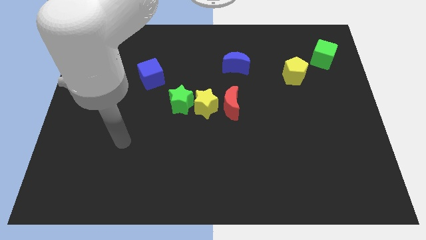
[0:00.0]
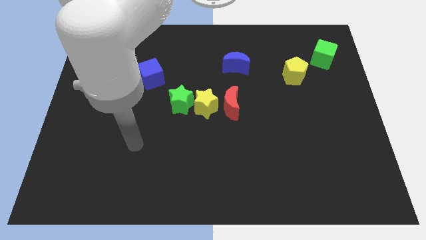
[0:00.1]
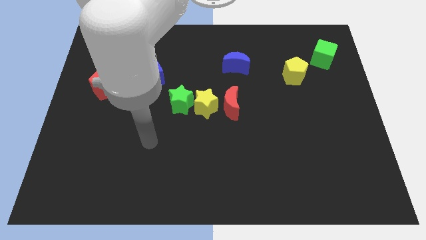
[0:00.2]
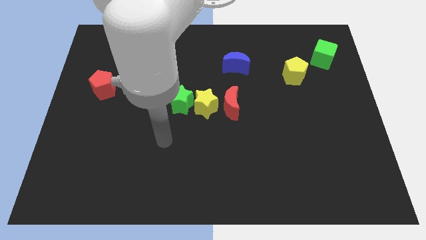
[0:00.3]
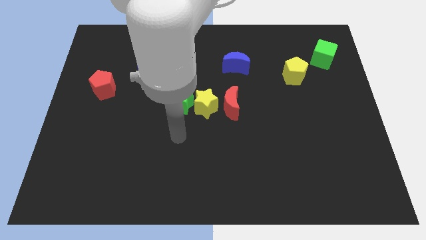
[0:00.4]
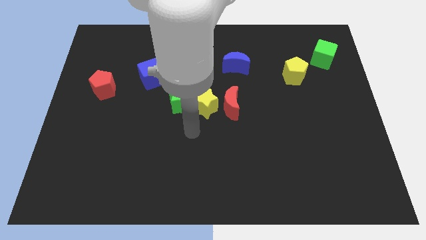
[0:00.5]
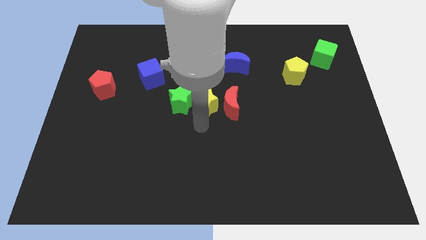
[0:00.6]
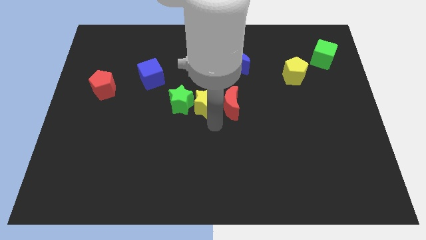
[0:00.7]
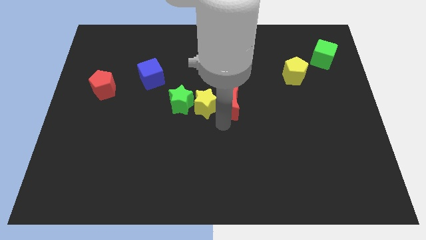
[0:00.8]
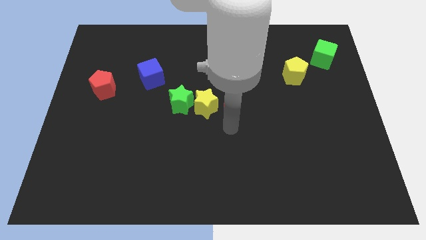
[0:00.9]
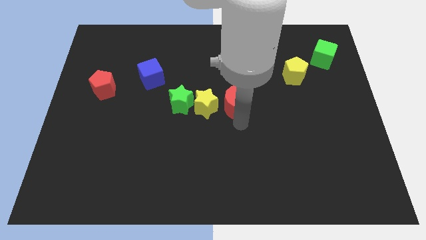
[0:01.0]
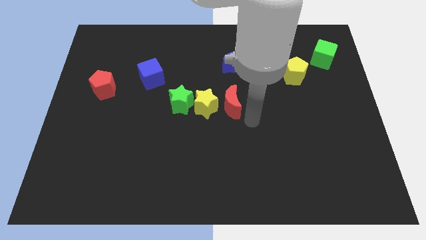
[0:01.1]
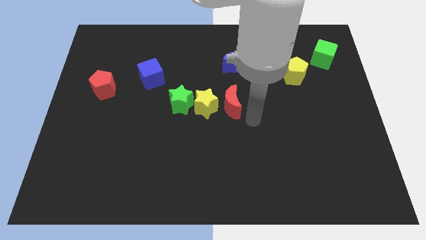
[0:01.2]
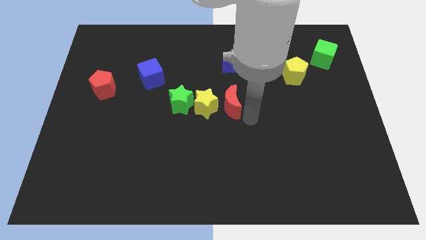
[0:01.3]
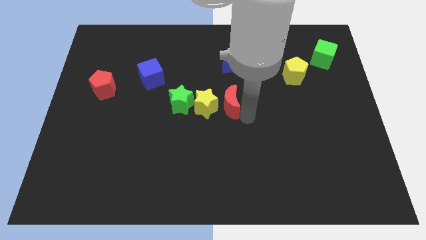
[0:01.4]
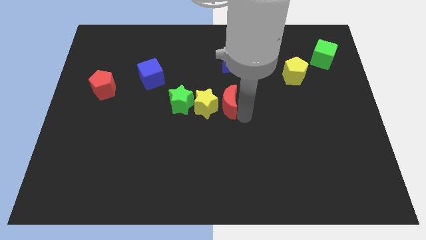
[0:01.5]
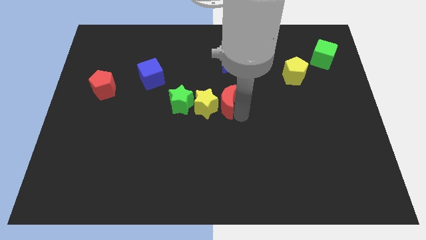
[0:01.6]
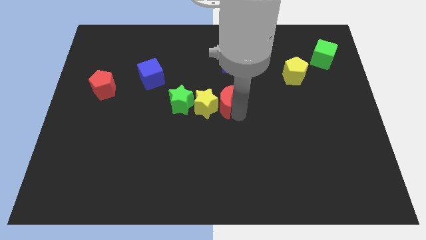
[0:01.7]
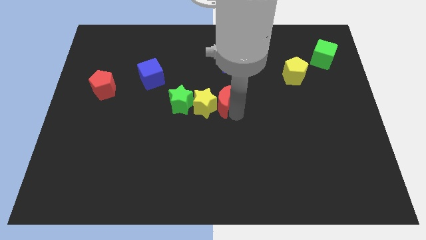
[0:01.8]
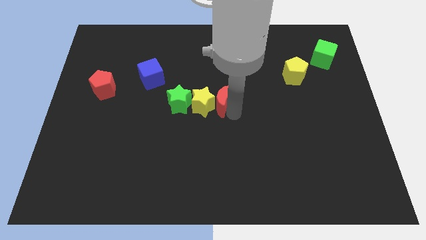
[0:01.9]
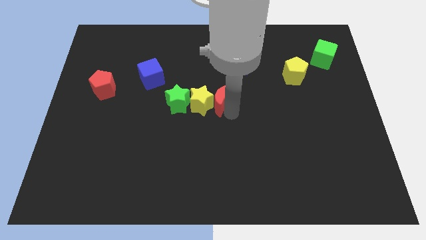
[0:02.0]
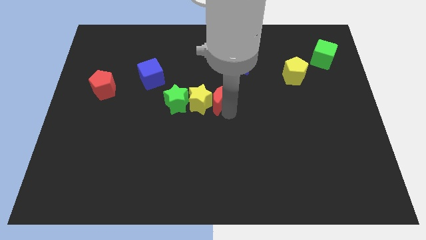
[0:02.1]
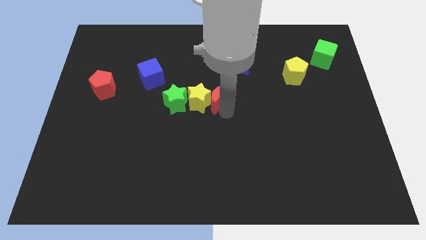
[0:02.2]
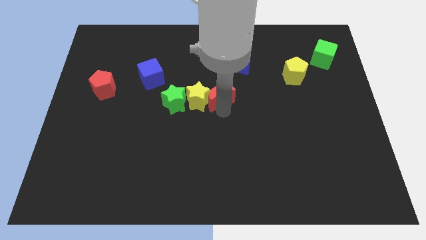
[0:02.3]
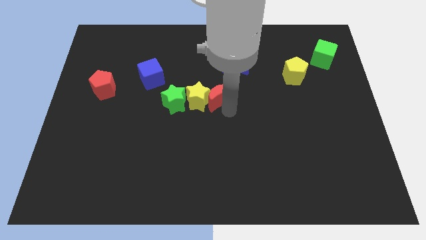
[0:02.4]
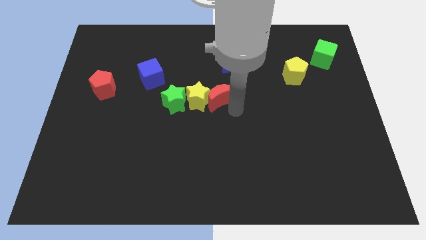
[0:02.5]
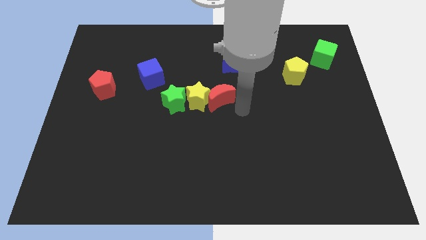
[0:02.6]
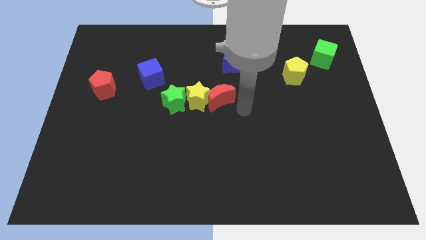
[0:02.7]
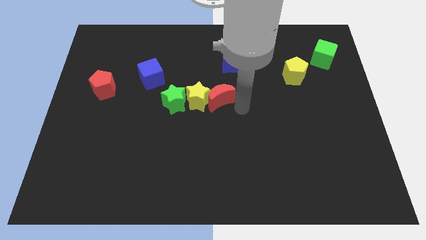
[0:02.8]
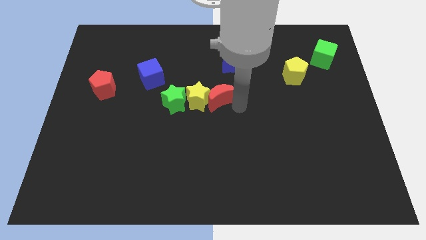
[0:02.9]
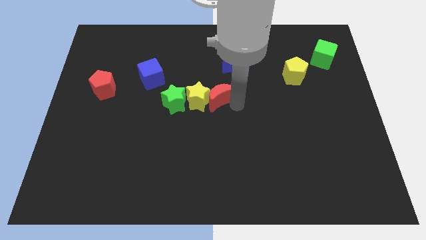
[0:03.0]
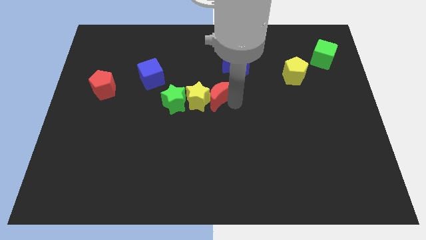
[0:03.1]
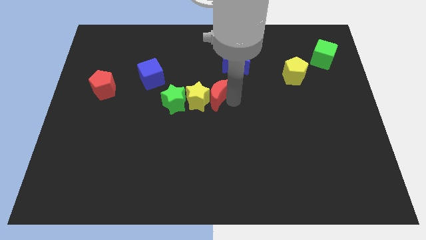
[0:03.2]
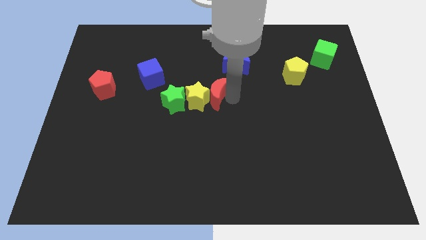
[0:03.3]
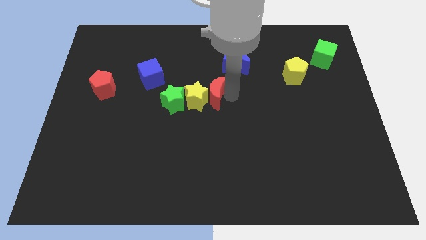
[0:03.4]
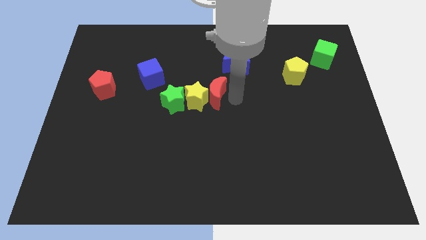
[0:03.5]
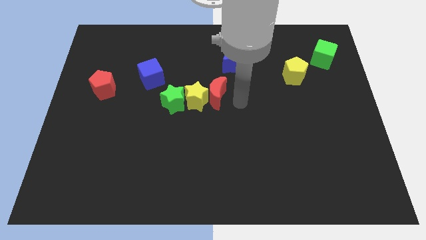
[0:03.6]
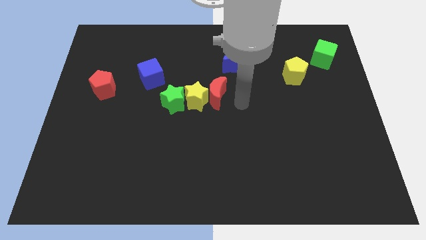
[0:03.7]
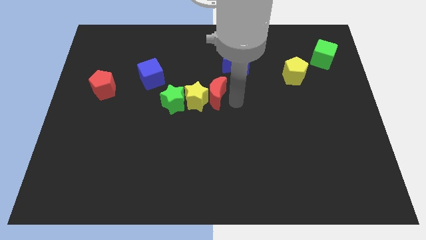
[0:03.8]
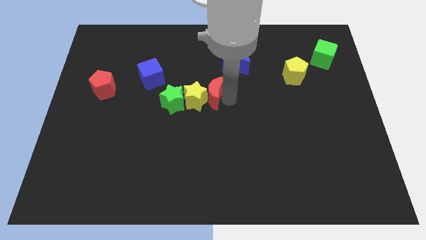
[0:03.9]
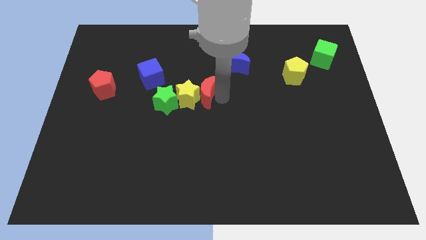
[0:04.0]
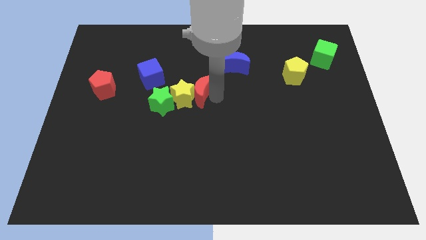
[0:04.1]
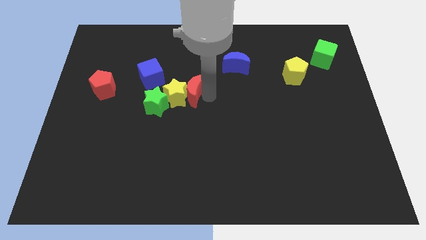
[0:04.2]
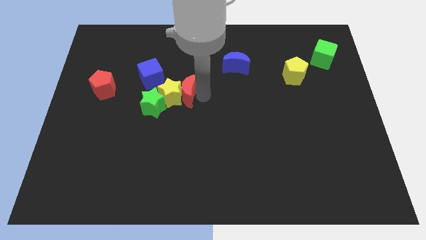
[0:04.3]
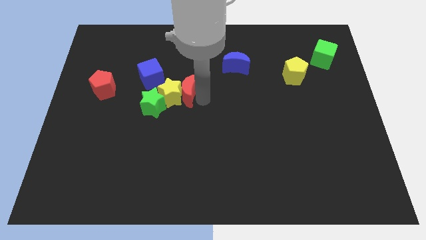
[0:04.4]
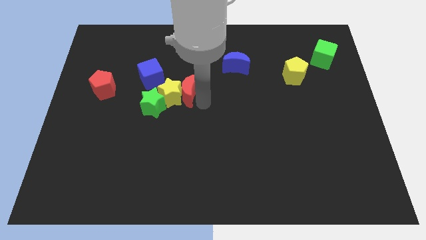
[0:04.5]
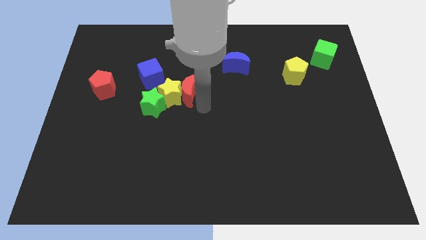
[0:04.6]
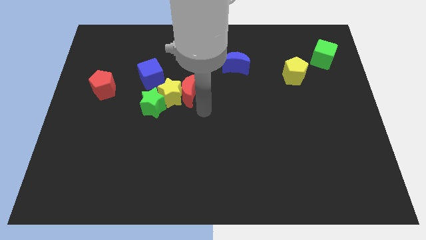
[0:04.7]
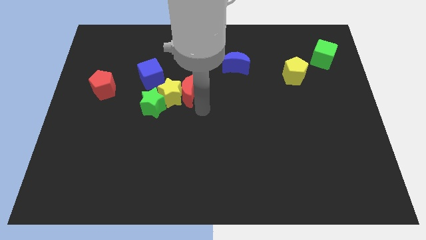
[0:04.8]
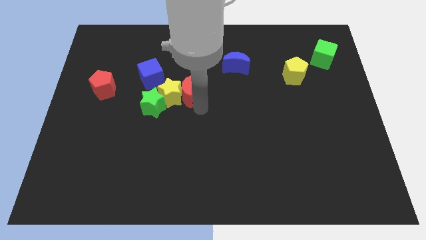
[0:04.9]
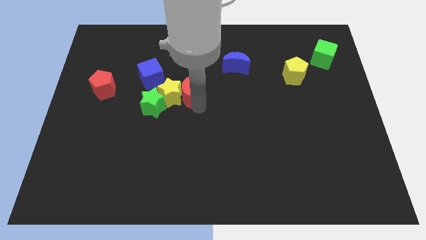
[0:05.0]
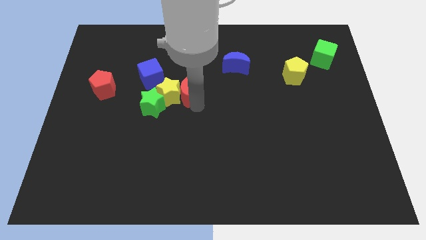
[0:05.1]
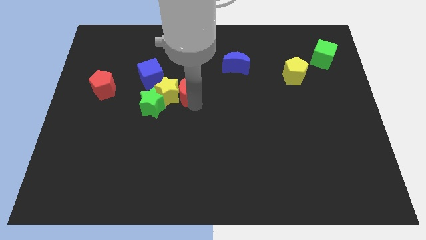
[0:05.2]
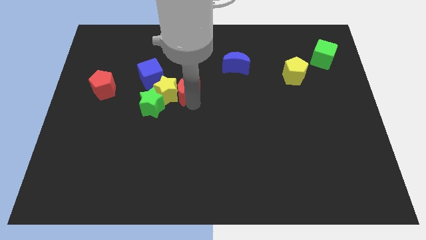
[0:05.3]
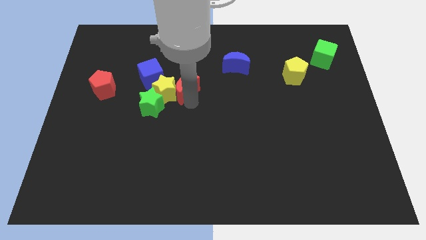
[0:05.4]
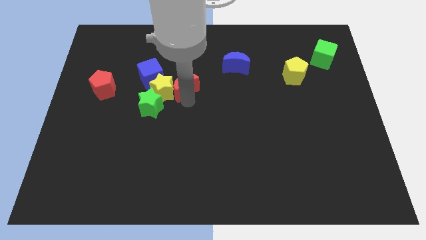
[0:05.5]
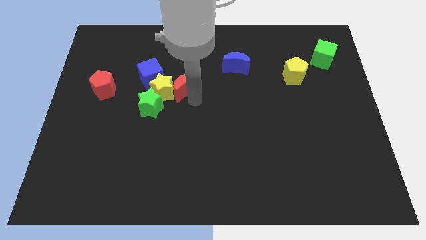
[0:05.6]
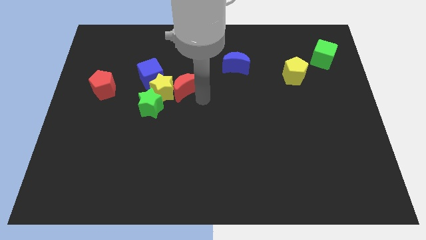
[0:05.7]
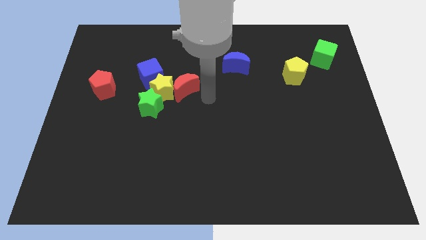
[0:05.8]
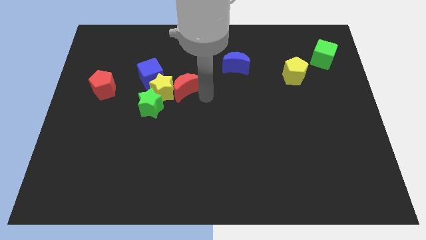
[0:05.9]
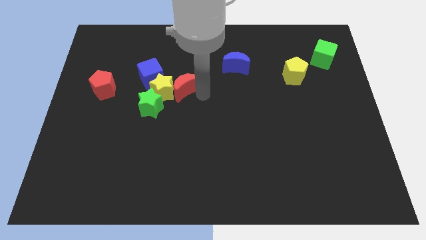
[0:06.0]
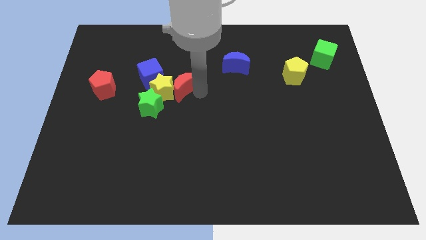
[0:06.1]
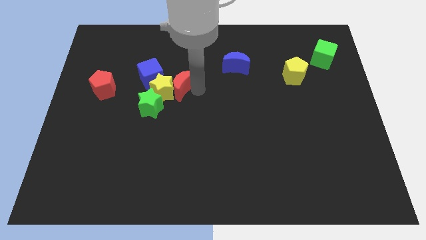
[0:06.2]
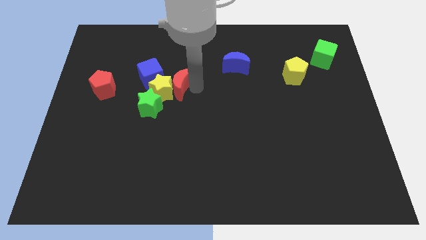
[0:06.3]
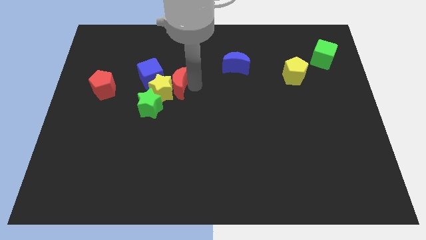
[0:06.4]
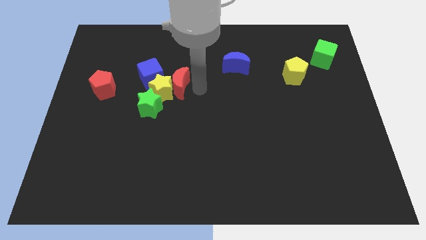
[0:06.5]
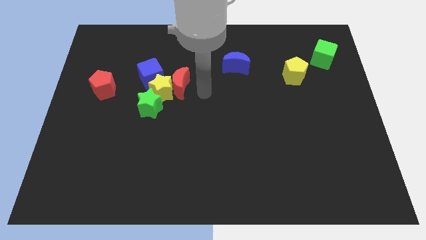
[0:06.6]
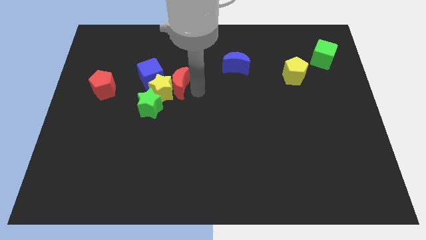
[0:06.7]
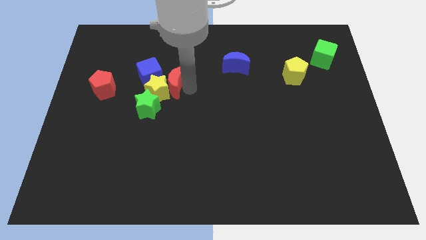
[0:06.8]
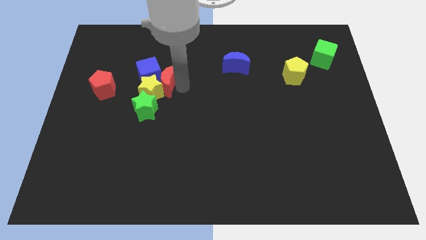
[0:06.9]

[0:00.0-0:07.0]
put the red moon to the blue cube
